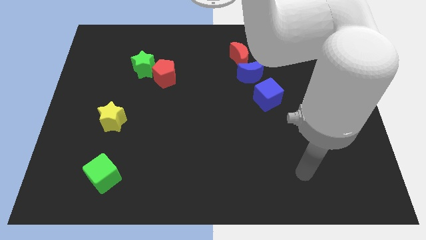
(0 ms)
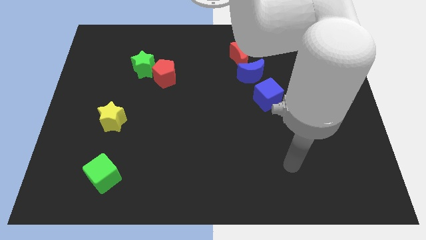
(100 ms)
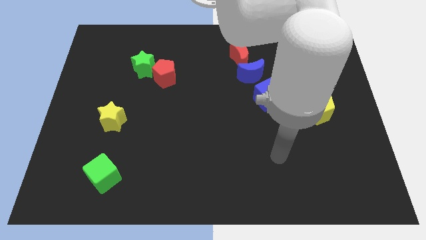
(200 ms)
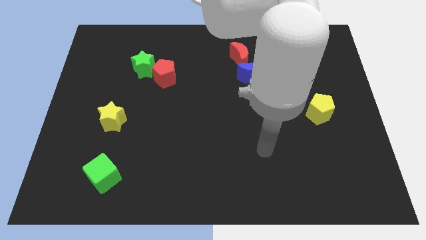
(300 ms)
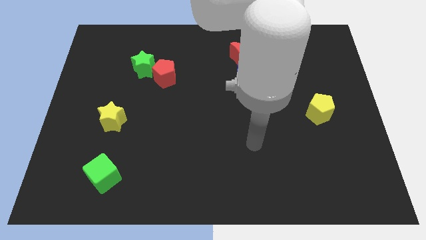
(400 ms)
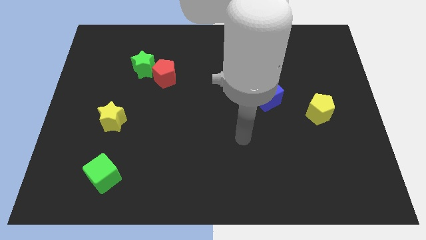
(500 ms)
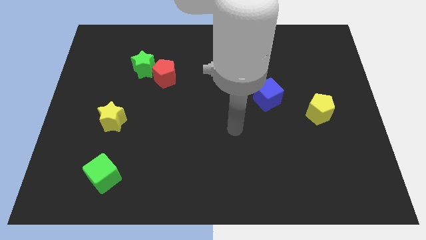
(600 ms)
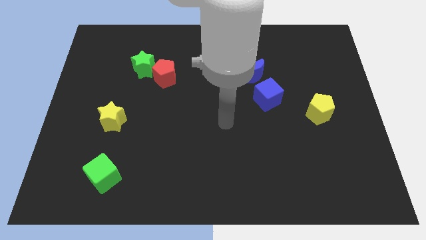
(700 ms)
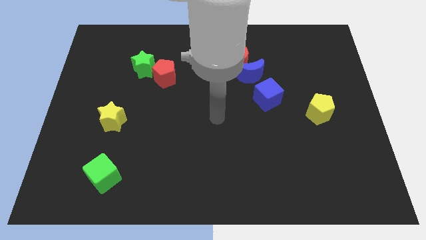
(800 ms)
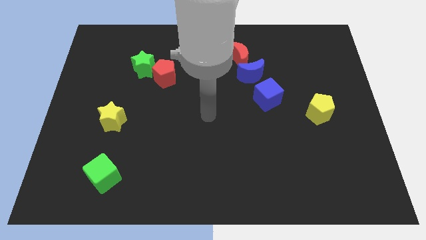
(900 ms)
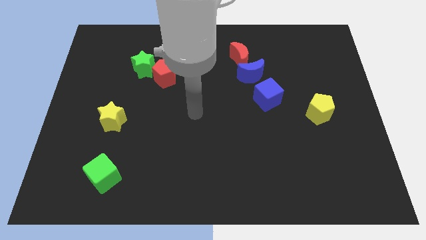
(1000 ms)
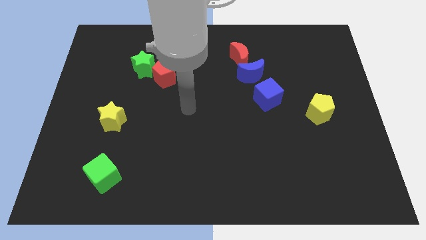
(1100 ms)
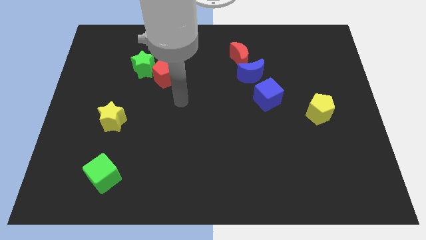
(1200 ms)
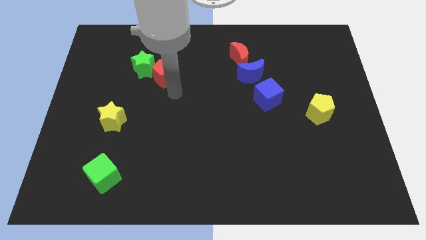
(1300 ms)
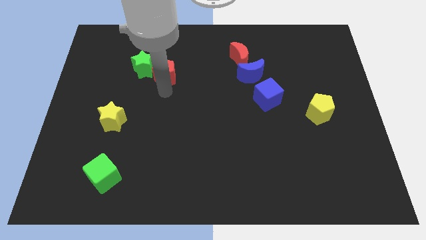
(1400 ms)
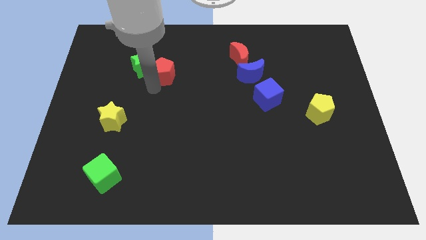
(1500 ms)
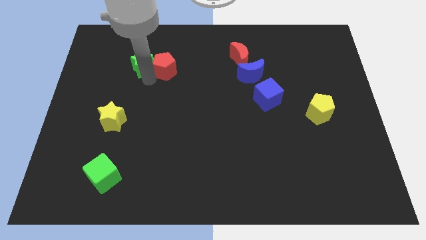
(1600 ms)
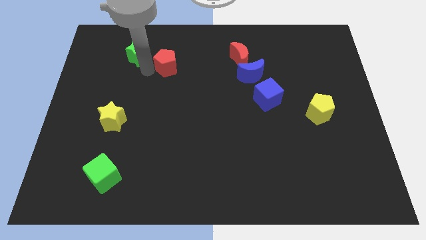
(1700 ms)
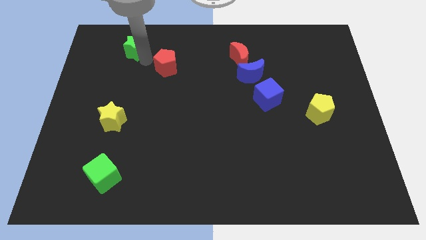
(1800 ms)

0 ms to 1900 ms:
pull the red pentagon apart from the green star

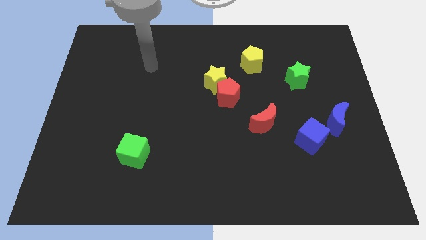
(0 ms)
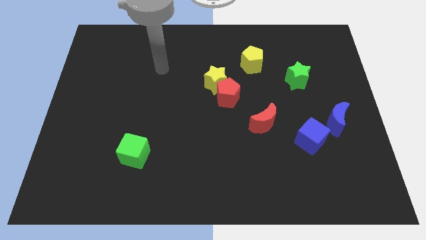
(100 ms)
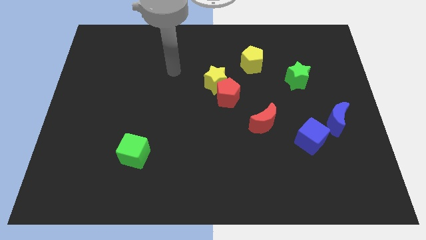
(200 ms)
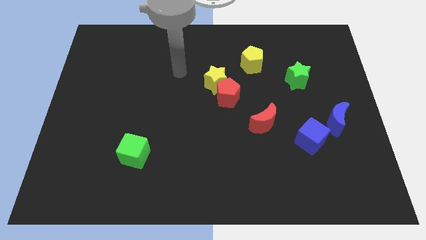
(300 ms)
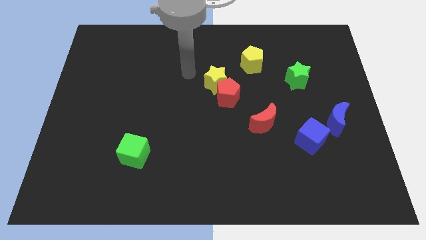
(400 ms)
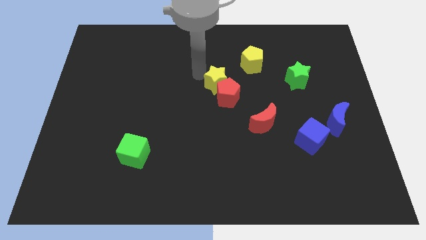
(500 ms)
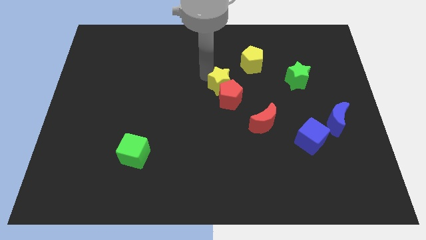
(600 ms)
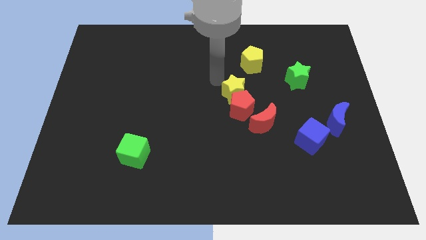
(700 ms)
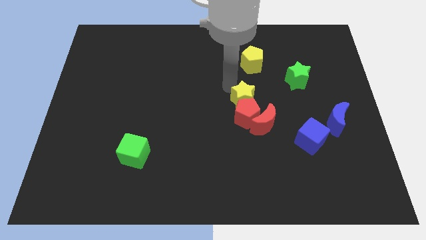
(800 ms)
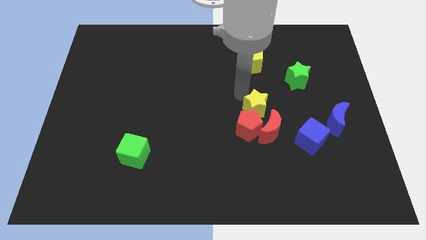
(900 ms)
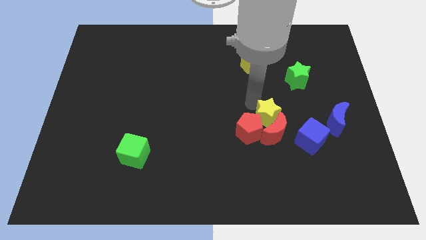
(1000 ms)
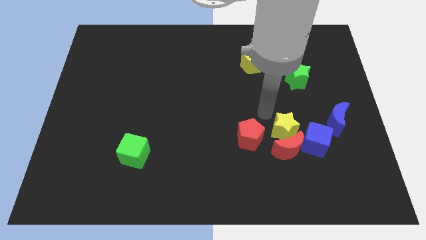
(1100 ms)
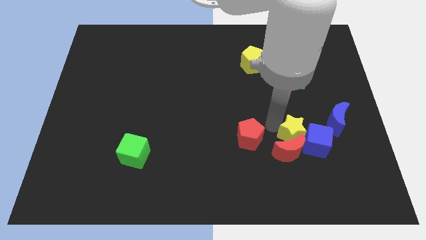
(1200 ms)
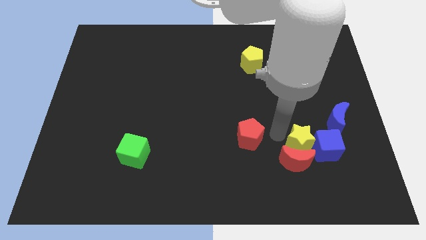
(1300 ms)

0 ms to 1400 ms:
move the red pentagon away from the yellow star

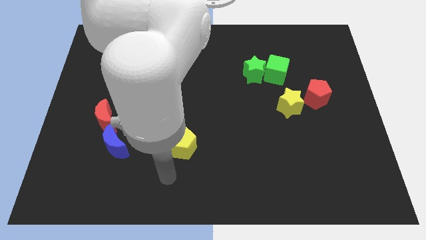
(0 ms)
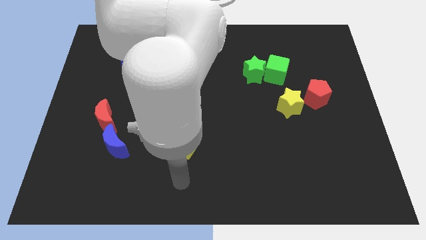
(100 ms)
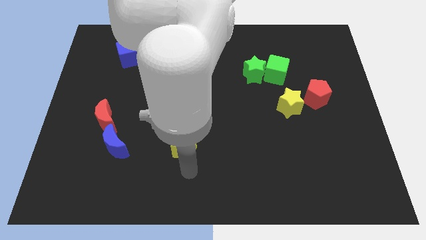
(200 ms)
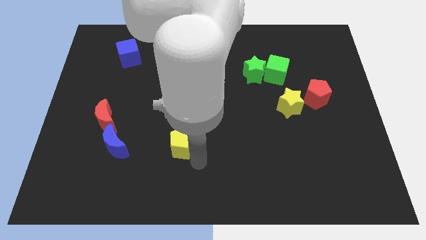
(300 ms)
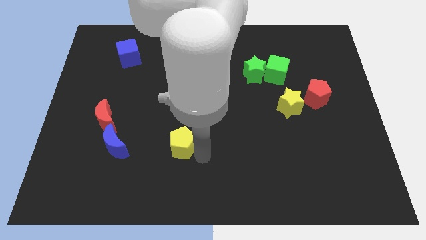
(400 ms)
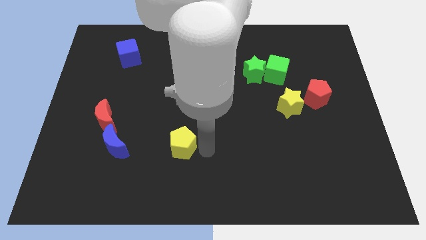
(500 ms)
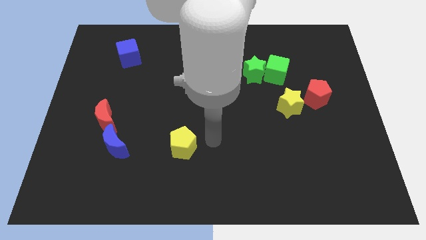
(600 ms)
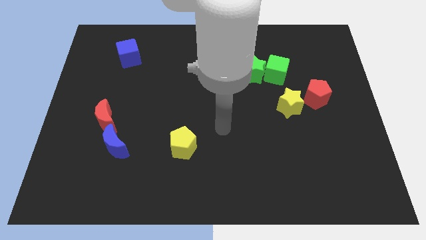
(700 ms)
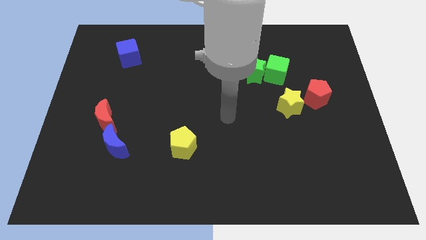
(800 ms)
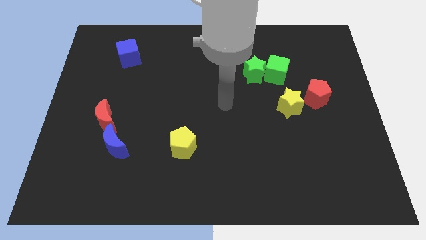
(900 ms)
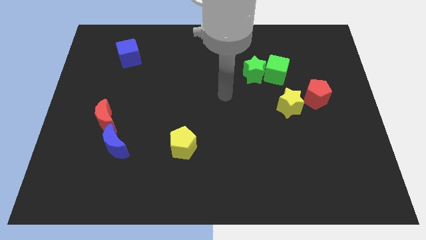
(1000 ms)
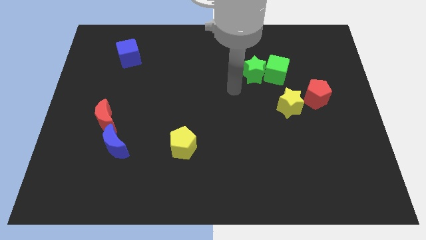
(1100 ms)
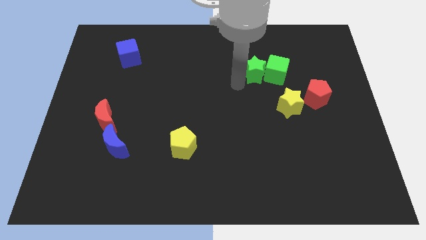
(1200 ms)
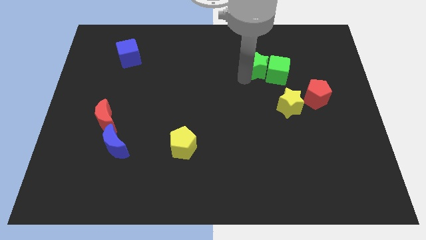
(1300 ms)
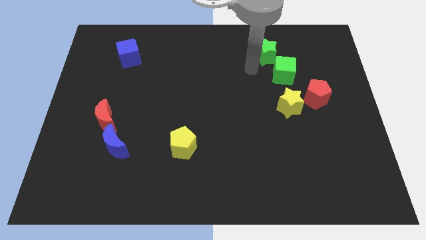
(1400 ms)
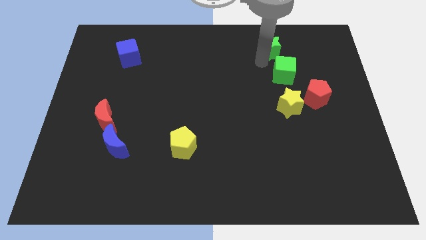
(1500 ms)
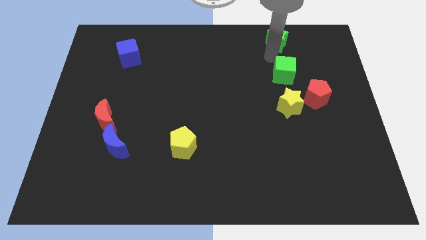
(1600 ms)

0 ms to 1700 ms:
pull the green cube apart from the green star

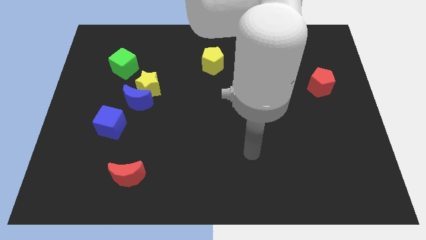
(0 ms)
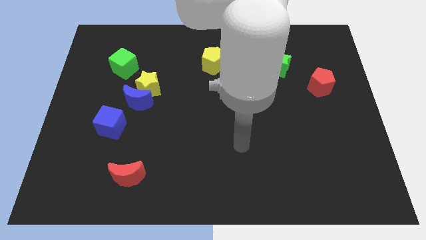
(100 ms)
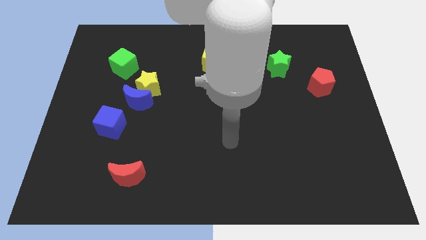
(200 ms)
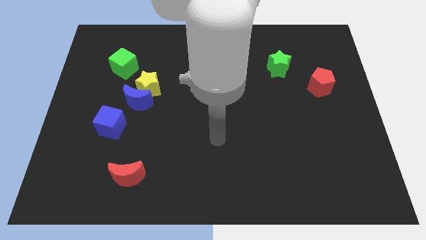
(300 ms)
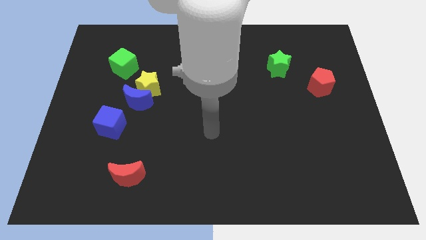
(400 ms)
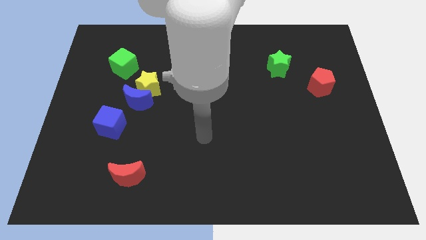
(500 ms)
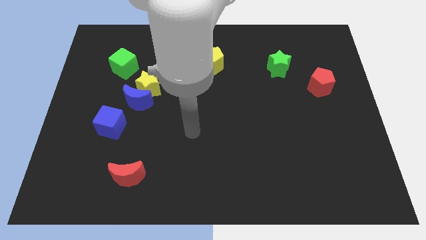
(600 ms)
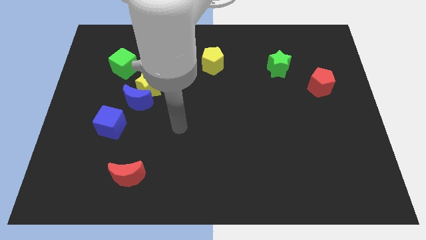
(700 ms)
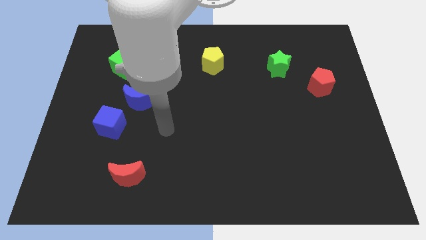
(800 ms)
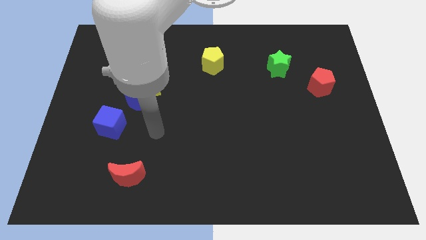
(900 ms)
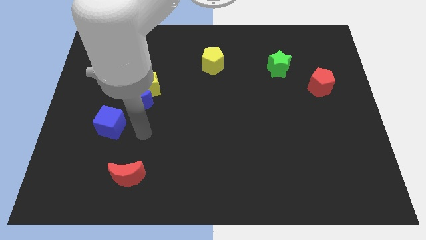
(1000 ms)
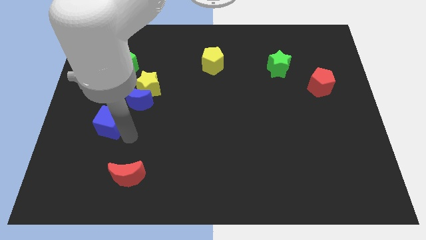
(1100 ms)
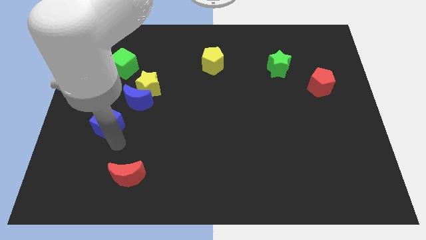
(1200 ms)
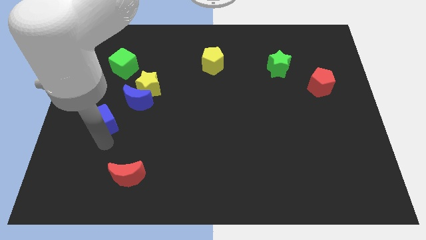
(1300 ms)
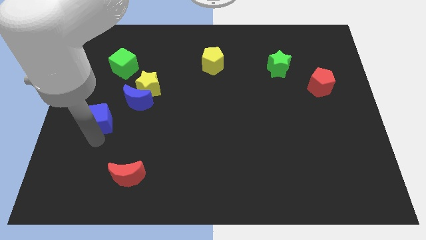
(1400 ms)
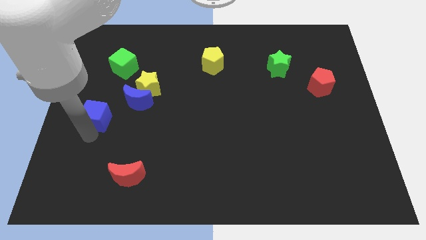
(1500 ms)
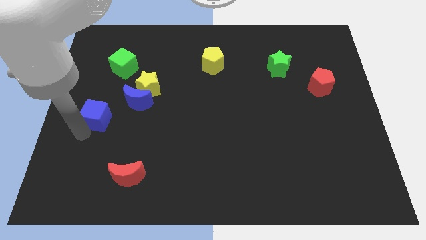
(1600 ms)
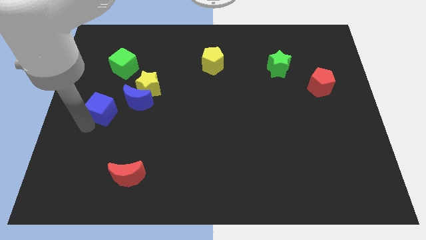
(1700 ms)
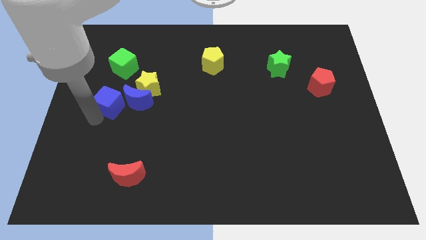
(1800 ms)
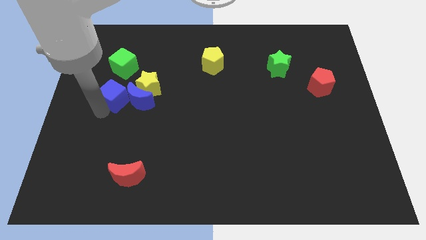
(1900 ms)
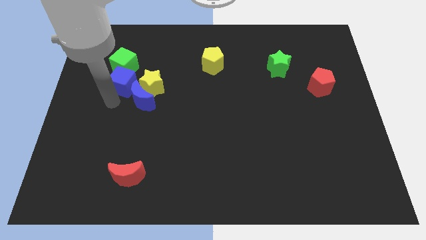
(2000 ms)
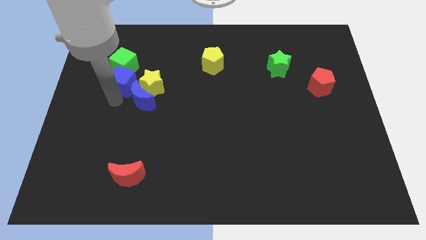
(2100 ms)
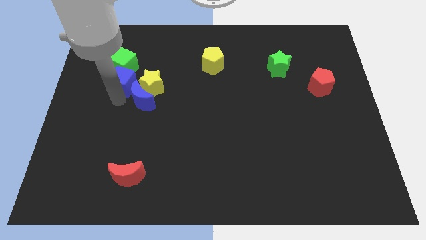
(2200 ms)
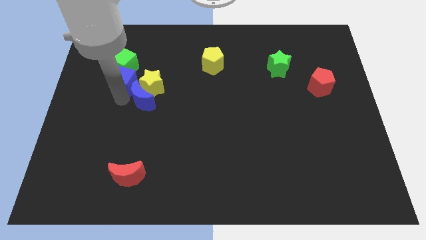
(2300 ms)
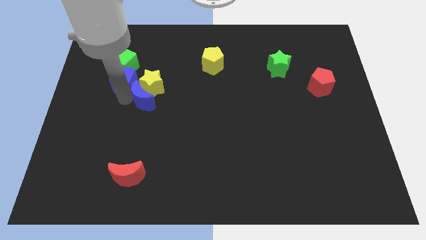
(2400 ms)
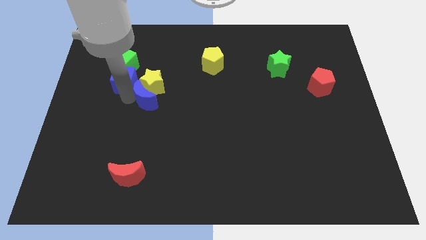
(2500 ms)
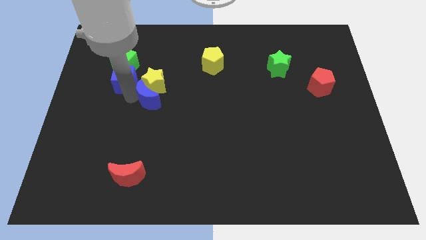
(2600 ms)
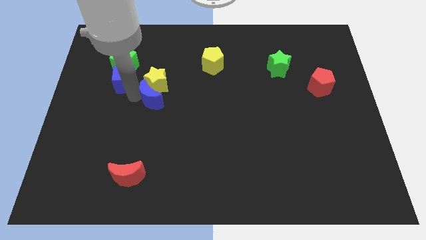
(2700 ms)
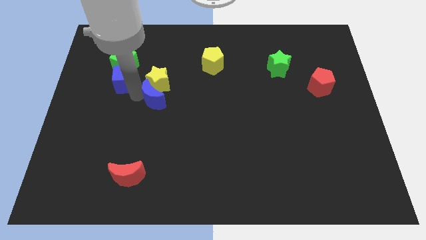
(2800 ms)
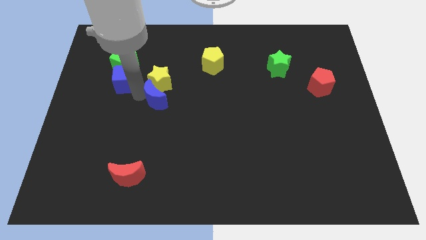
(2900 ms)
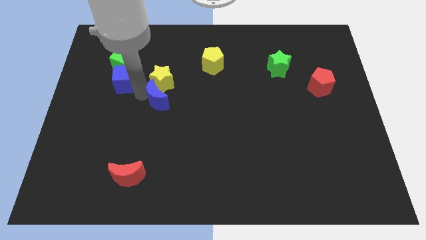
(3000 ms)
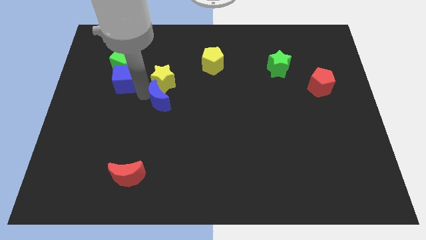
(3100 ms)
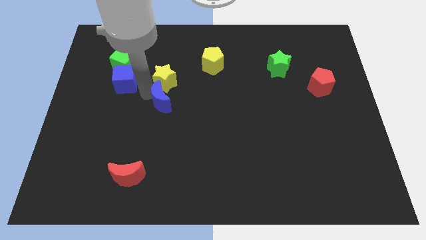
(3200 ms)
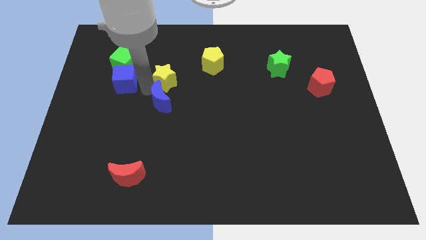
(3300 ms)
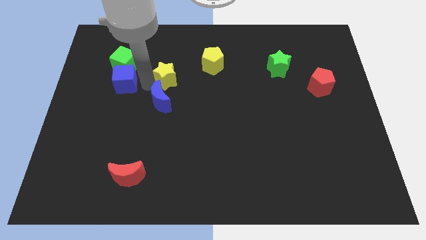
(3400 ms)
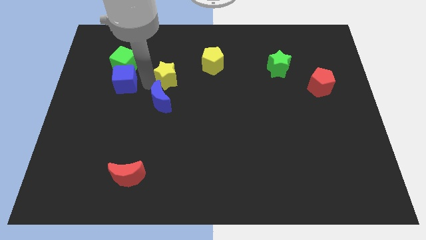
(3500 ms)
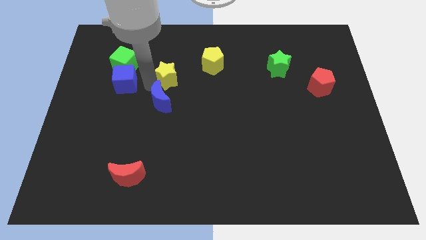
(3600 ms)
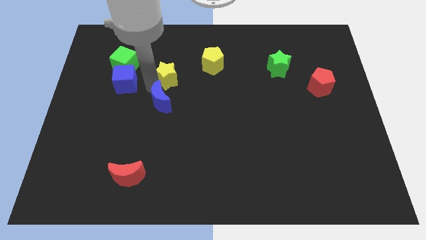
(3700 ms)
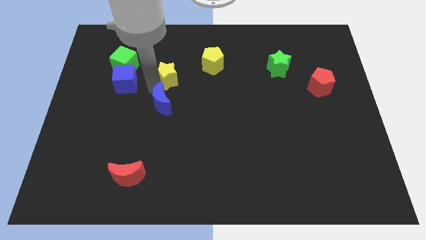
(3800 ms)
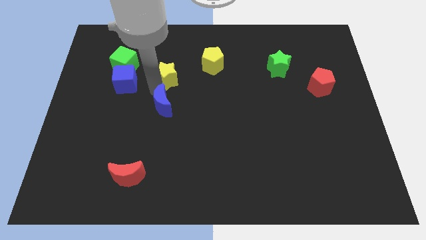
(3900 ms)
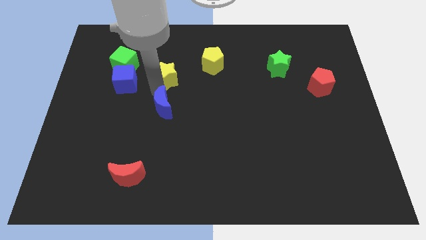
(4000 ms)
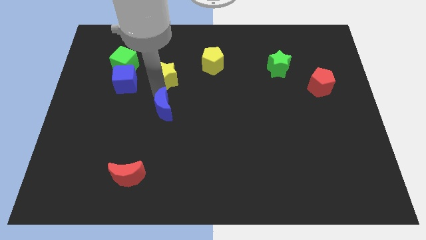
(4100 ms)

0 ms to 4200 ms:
pull the blue moon apart from the yellow star and blue cube

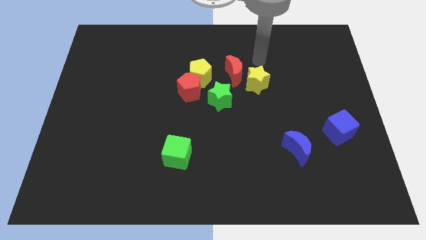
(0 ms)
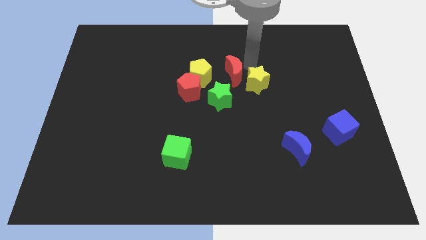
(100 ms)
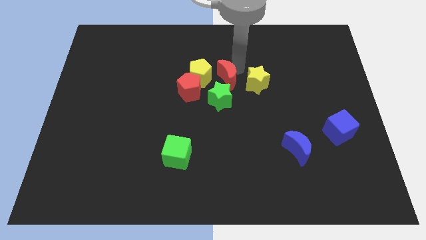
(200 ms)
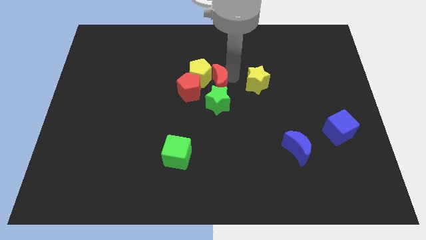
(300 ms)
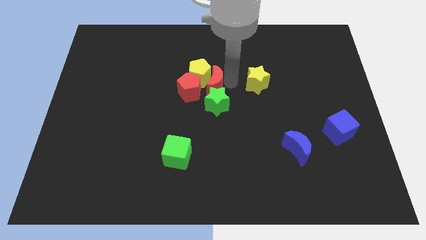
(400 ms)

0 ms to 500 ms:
pull the yellow star apart from the red moon
